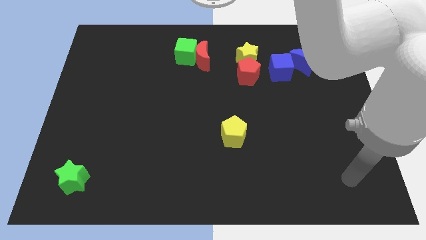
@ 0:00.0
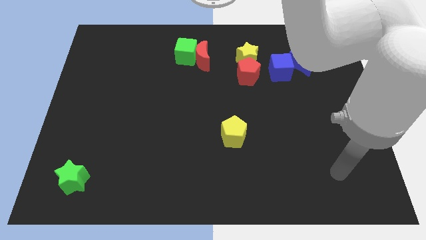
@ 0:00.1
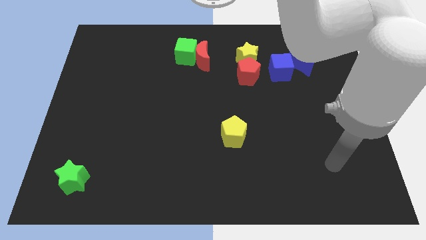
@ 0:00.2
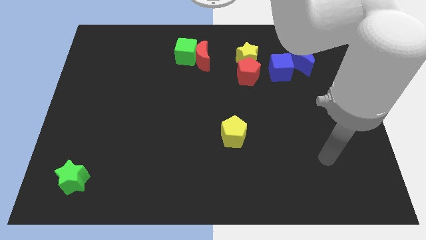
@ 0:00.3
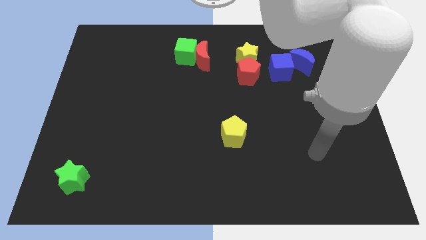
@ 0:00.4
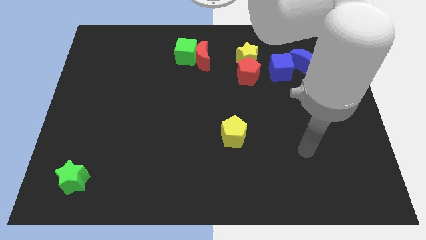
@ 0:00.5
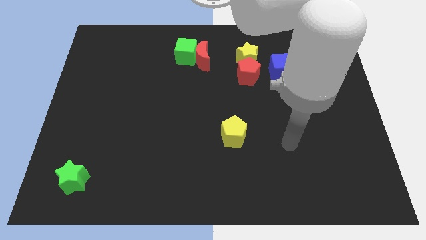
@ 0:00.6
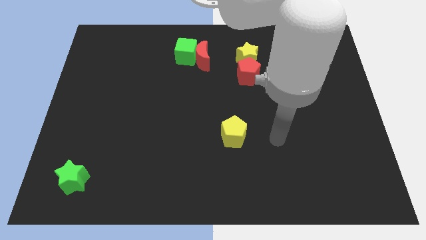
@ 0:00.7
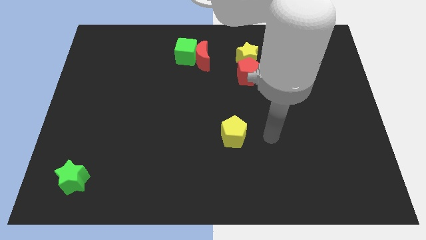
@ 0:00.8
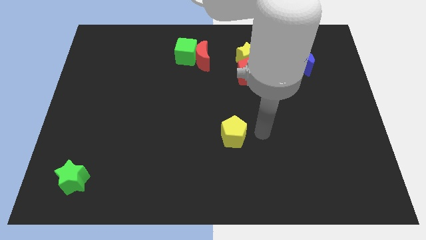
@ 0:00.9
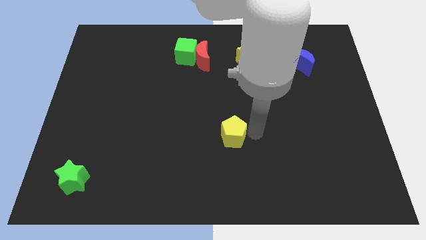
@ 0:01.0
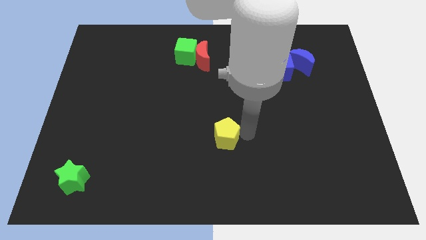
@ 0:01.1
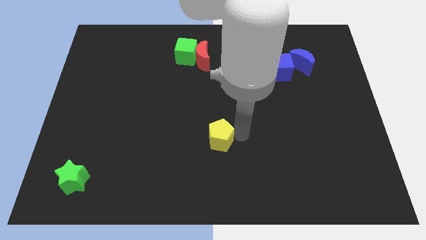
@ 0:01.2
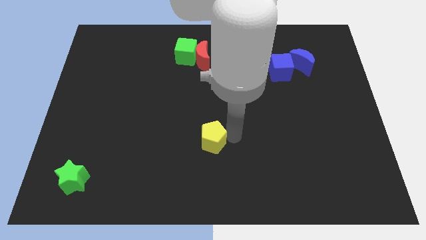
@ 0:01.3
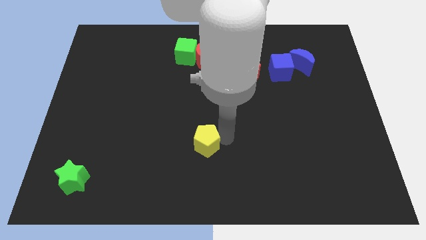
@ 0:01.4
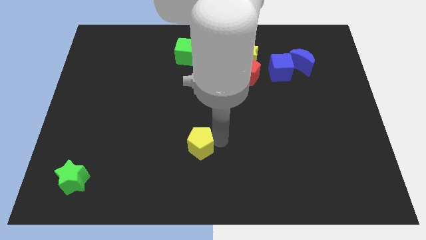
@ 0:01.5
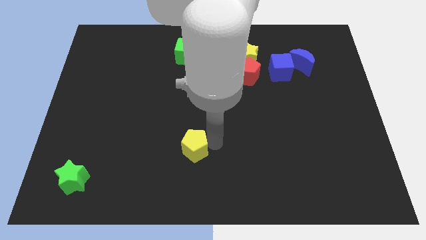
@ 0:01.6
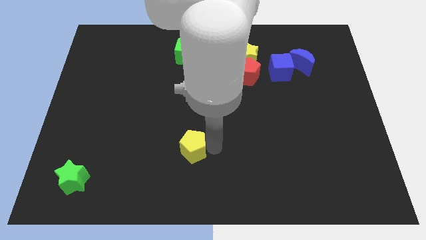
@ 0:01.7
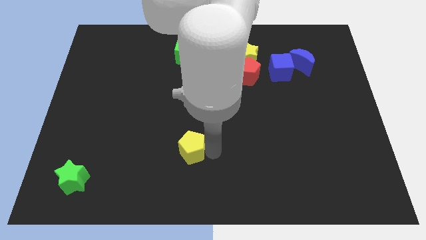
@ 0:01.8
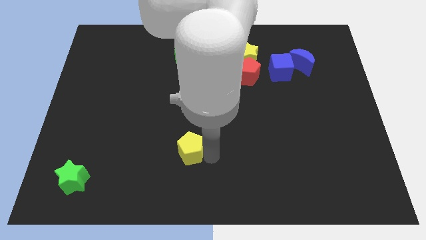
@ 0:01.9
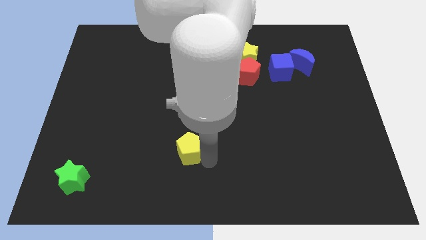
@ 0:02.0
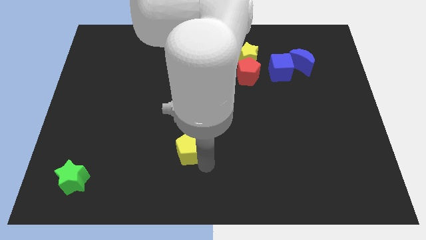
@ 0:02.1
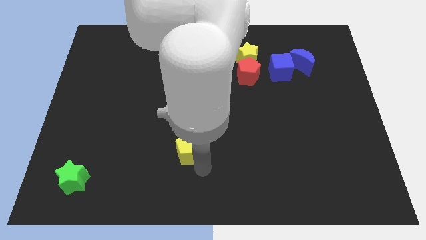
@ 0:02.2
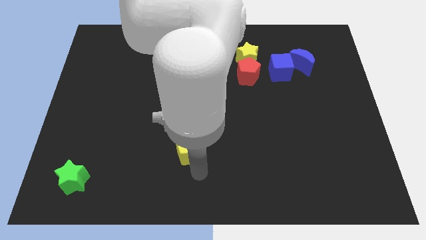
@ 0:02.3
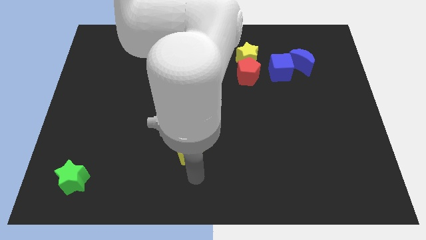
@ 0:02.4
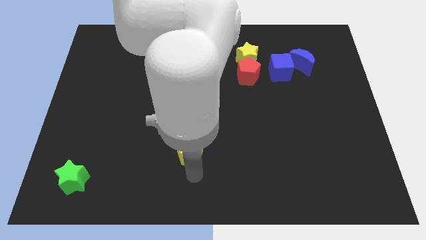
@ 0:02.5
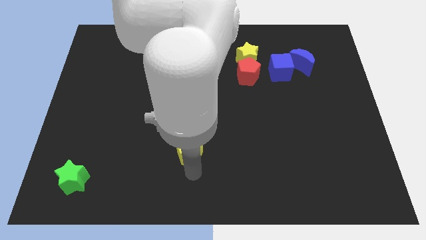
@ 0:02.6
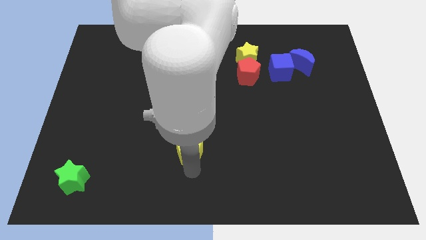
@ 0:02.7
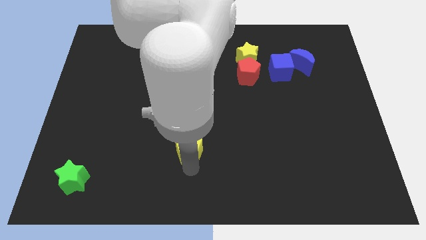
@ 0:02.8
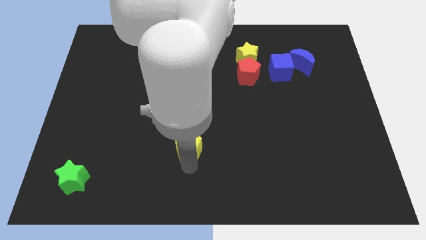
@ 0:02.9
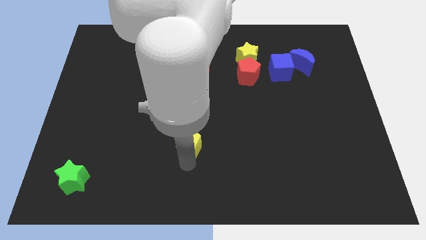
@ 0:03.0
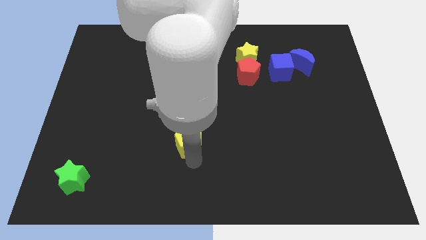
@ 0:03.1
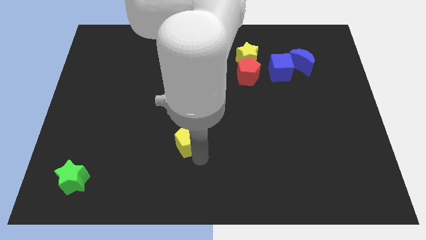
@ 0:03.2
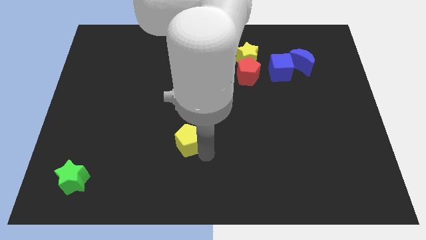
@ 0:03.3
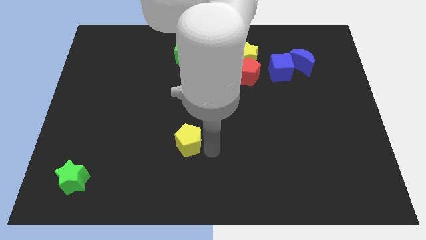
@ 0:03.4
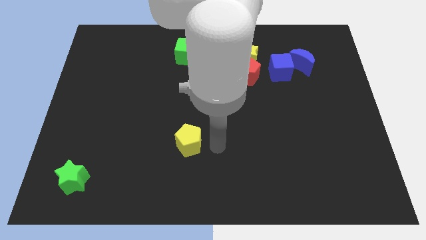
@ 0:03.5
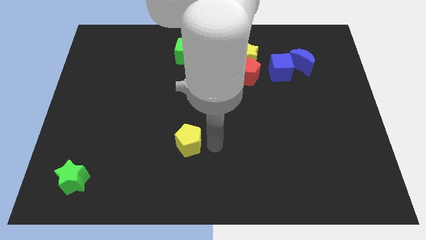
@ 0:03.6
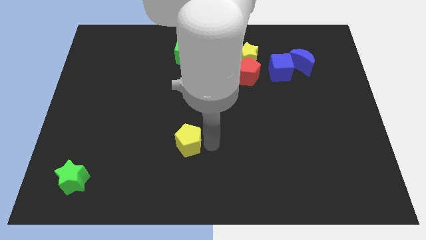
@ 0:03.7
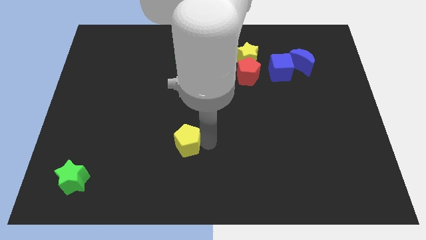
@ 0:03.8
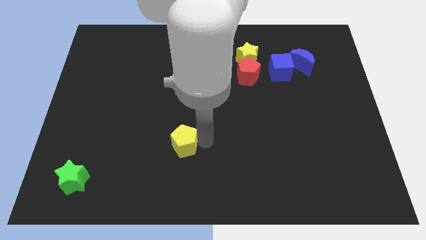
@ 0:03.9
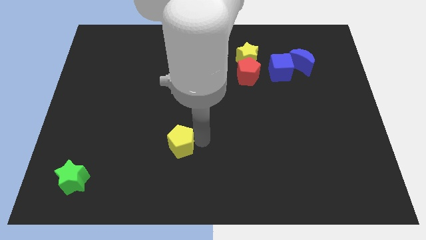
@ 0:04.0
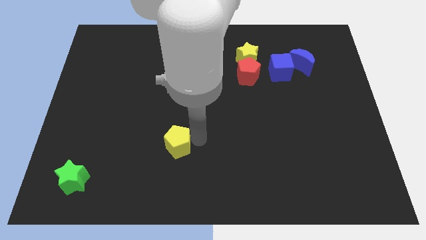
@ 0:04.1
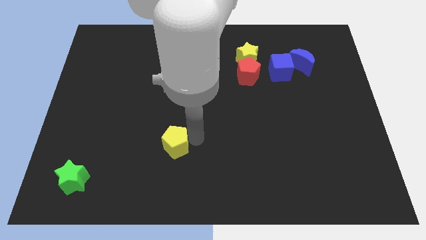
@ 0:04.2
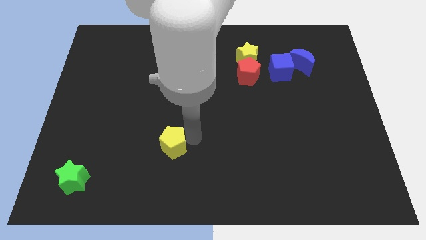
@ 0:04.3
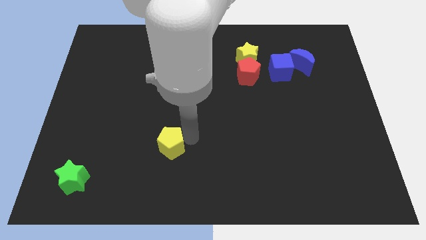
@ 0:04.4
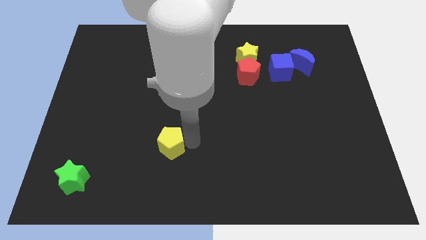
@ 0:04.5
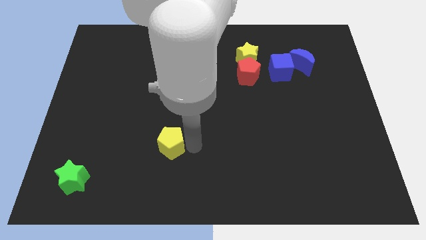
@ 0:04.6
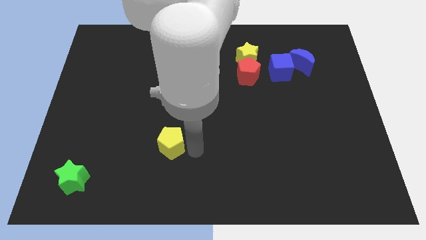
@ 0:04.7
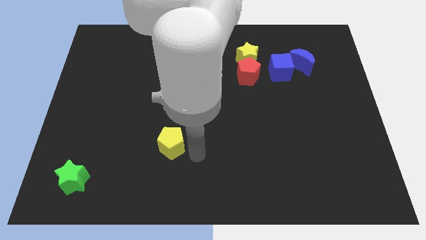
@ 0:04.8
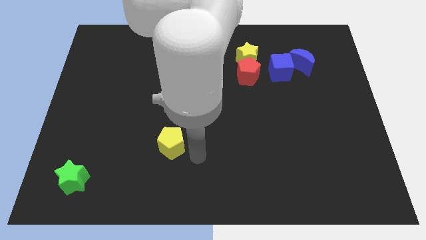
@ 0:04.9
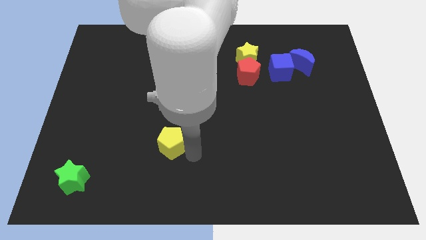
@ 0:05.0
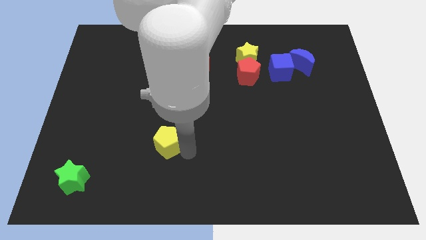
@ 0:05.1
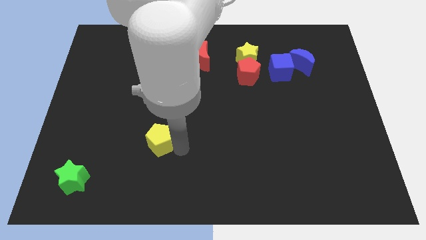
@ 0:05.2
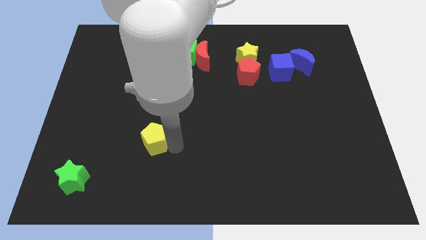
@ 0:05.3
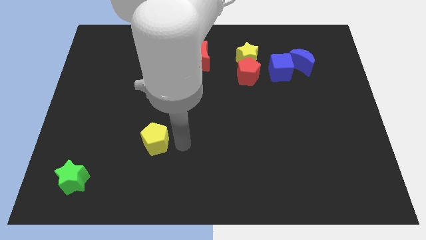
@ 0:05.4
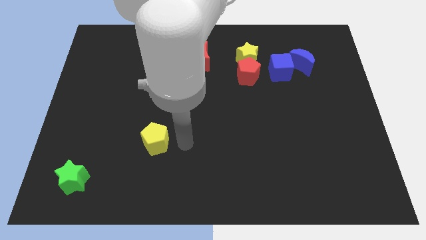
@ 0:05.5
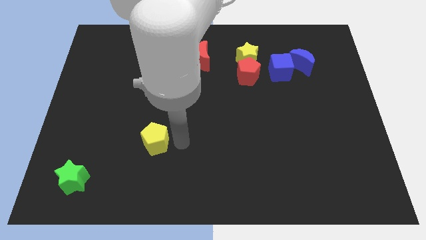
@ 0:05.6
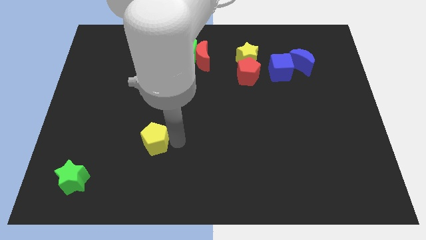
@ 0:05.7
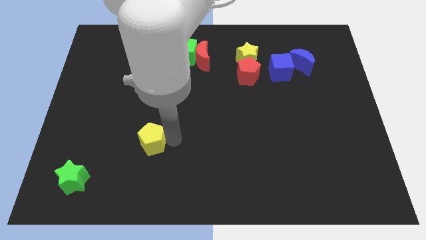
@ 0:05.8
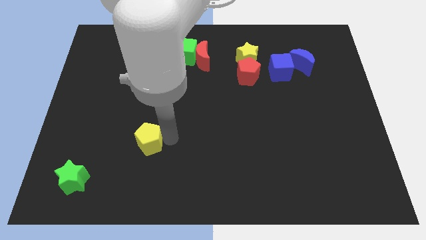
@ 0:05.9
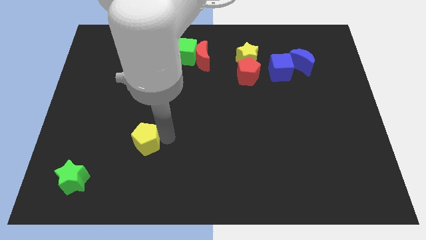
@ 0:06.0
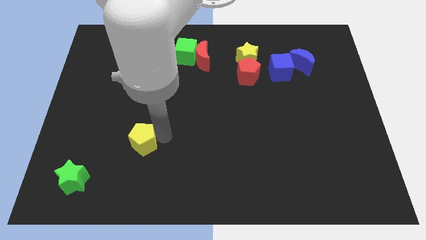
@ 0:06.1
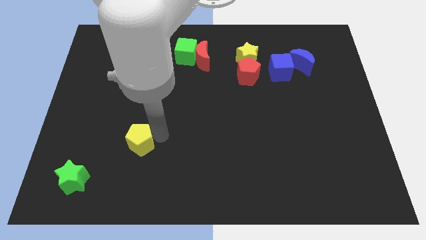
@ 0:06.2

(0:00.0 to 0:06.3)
move the yellow pentagon to the left

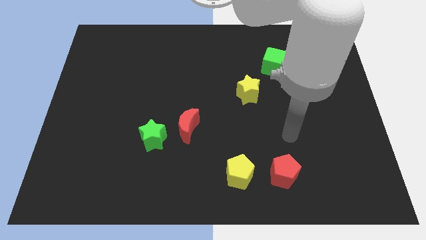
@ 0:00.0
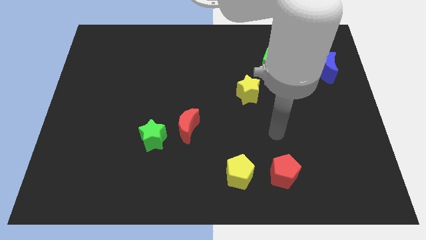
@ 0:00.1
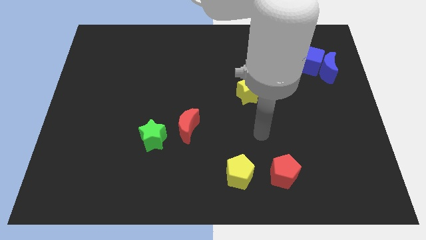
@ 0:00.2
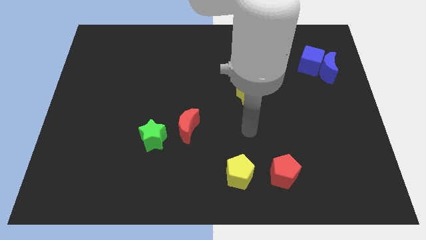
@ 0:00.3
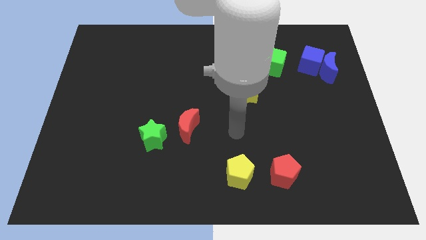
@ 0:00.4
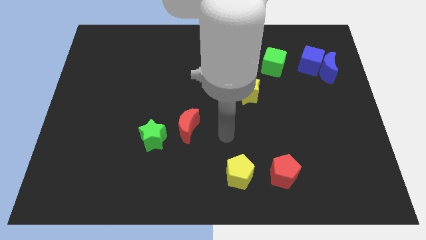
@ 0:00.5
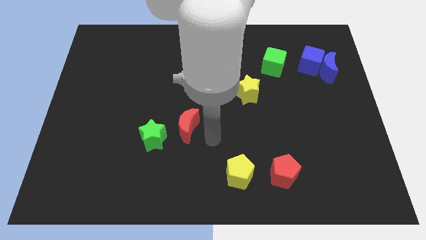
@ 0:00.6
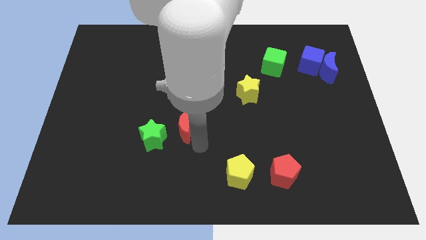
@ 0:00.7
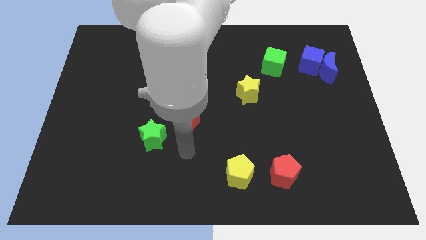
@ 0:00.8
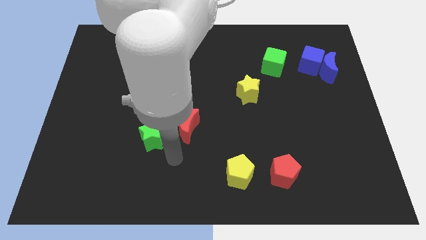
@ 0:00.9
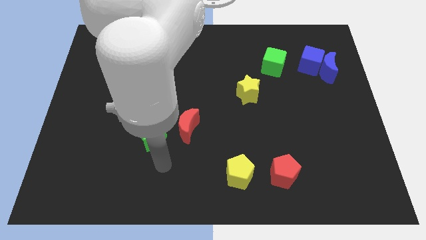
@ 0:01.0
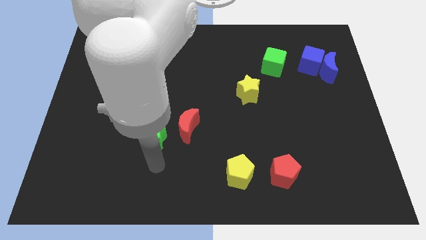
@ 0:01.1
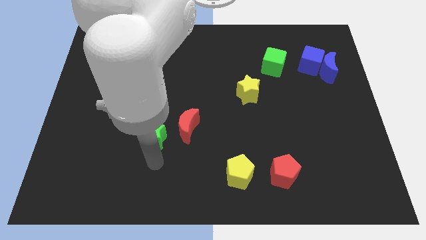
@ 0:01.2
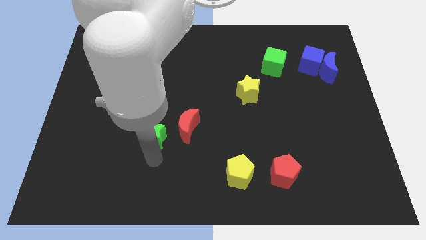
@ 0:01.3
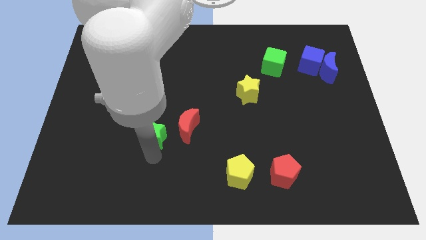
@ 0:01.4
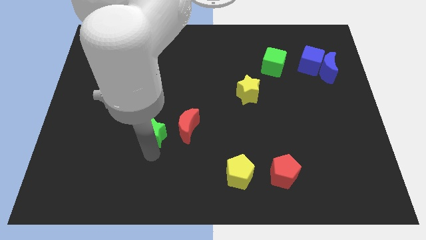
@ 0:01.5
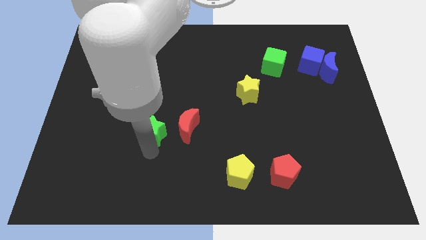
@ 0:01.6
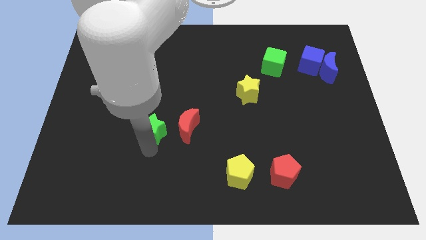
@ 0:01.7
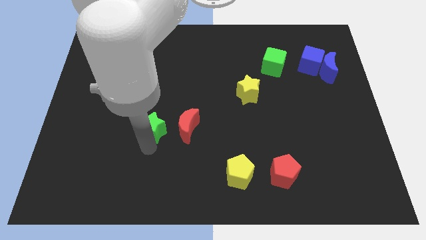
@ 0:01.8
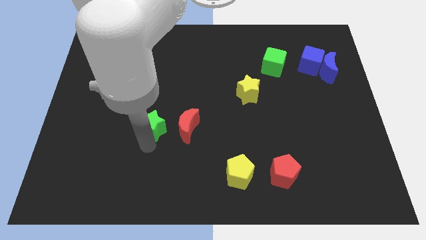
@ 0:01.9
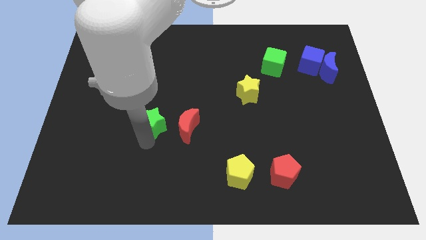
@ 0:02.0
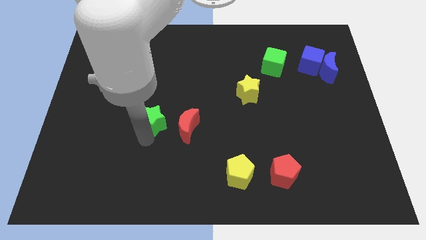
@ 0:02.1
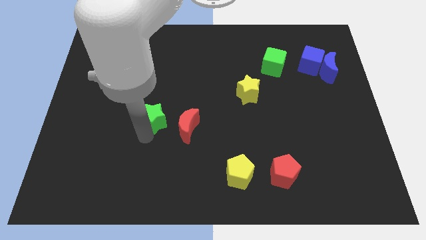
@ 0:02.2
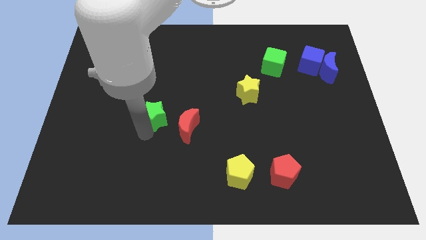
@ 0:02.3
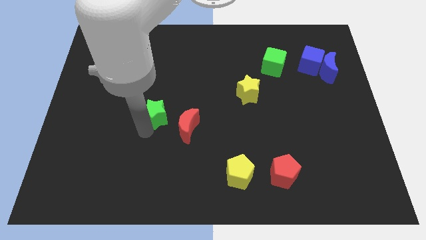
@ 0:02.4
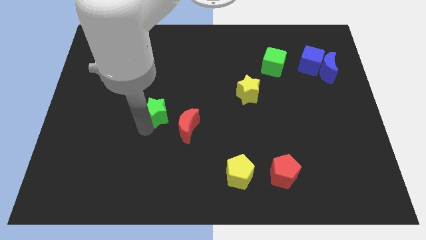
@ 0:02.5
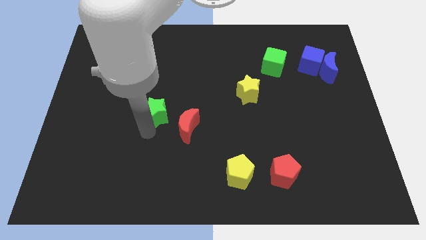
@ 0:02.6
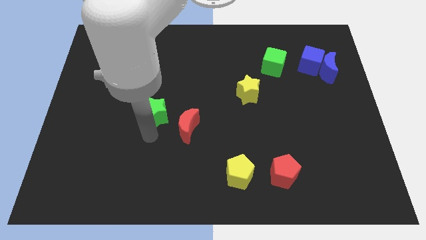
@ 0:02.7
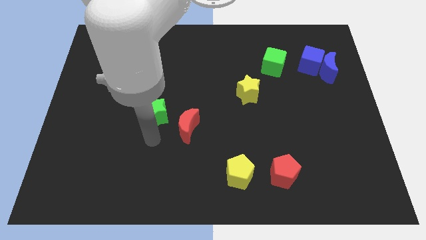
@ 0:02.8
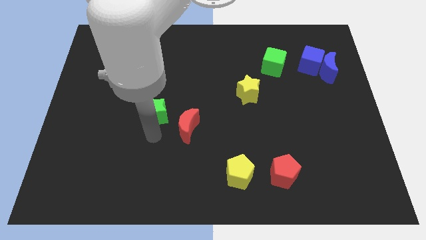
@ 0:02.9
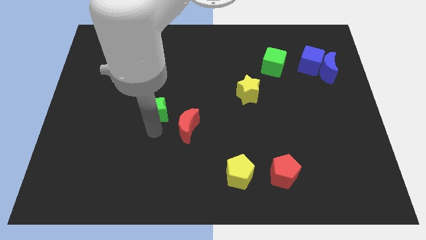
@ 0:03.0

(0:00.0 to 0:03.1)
slightly push the green star up
